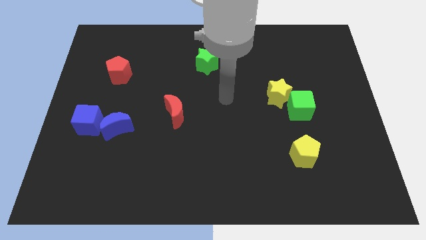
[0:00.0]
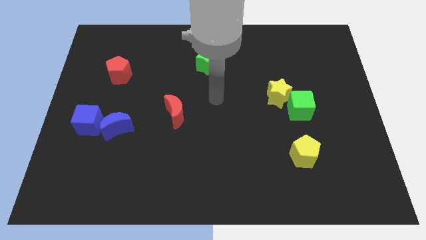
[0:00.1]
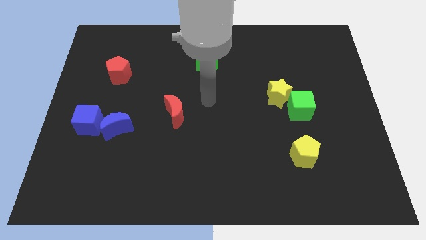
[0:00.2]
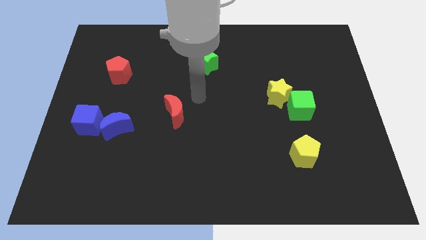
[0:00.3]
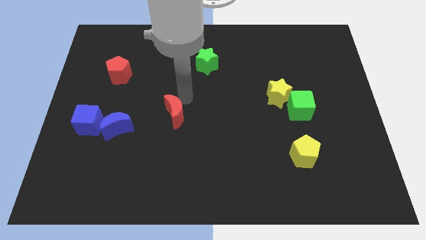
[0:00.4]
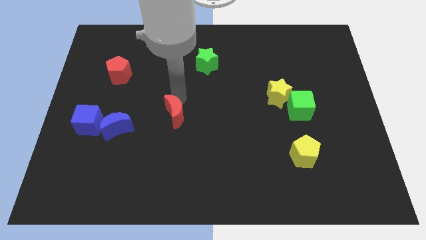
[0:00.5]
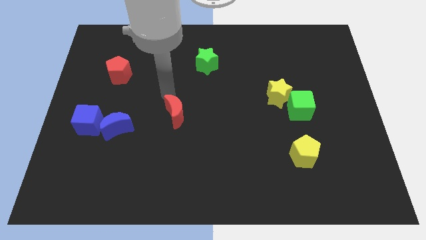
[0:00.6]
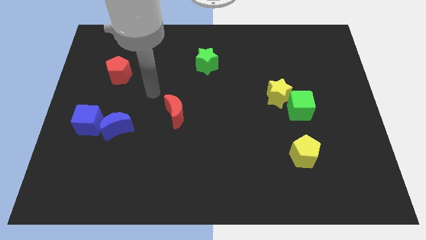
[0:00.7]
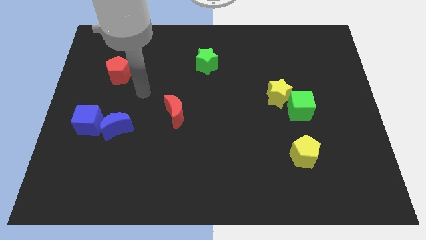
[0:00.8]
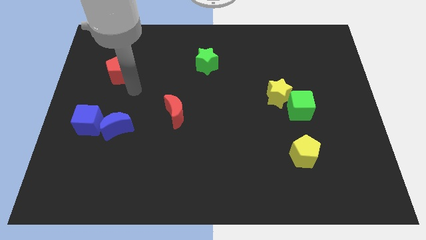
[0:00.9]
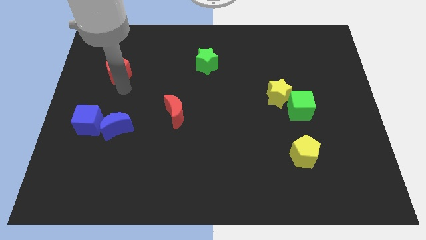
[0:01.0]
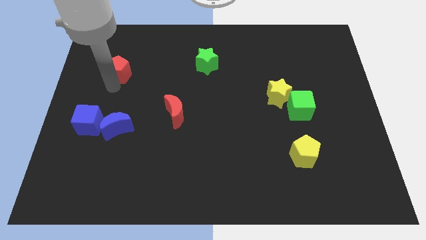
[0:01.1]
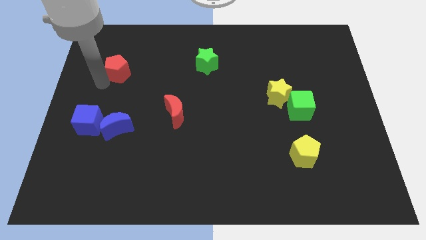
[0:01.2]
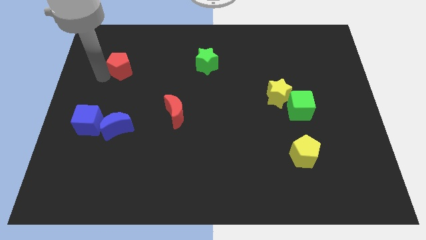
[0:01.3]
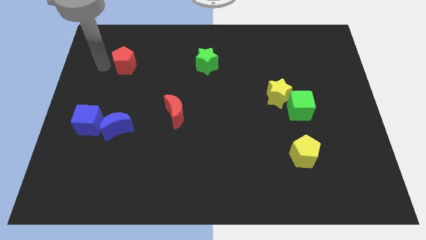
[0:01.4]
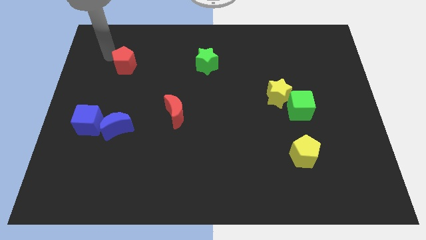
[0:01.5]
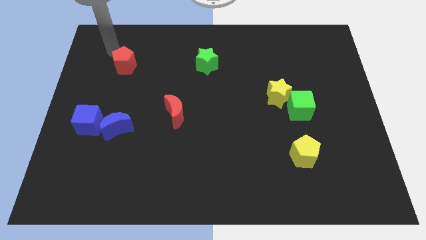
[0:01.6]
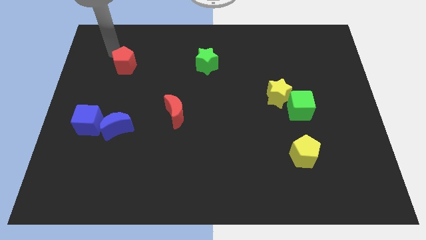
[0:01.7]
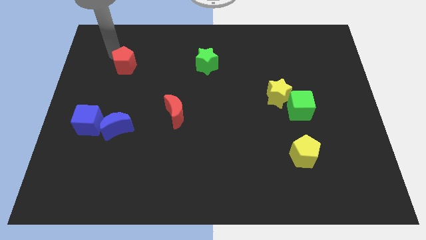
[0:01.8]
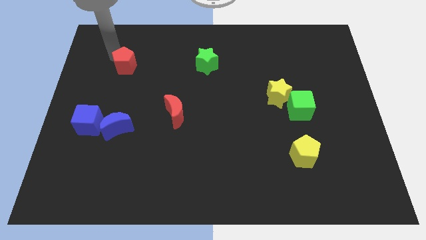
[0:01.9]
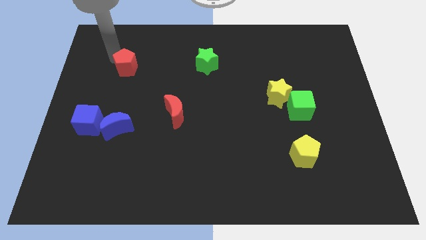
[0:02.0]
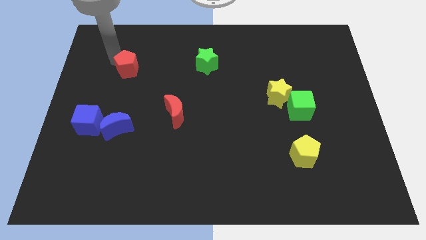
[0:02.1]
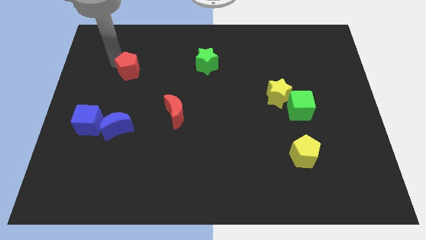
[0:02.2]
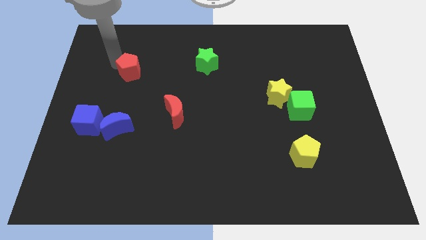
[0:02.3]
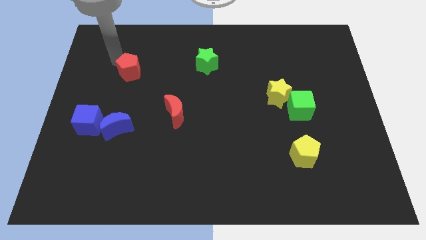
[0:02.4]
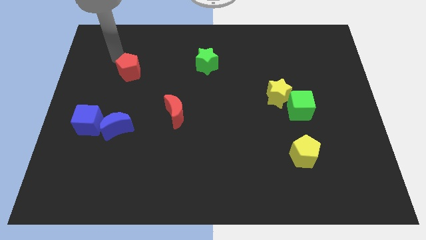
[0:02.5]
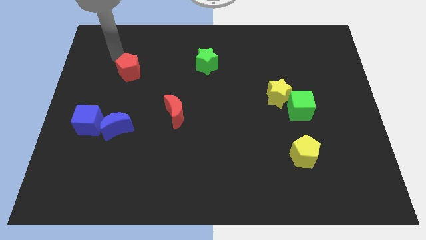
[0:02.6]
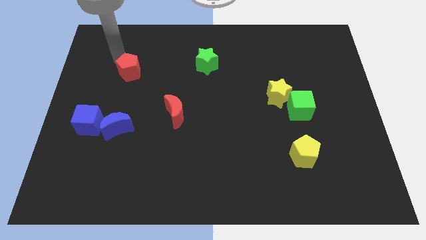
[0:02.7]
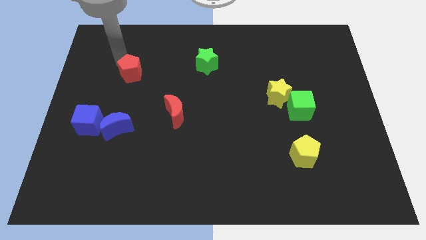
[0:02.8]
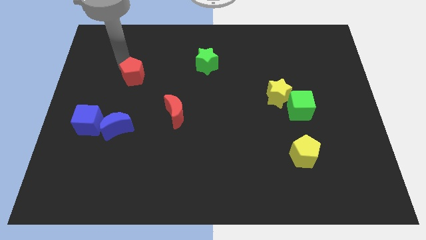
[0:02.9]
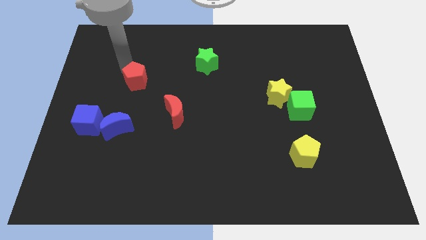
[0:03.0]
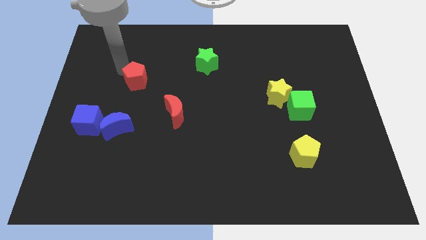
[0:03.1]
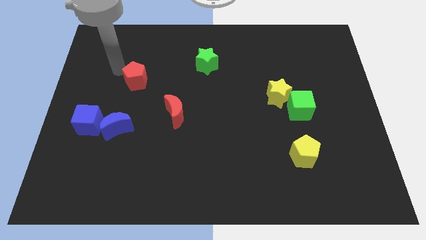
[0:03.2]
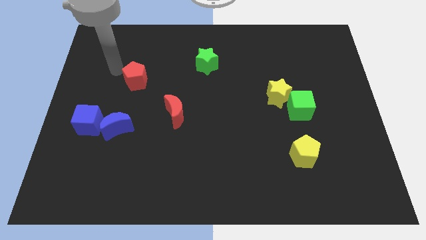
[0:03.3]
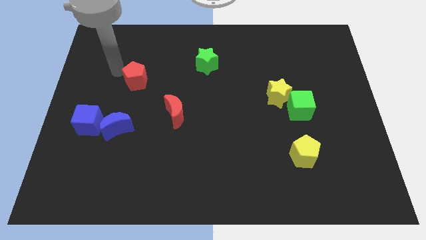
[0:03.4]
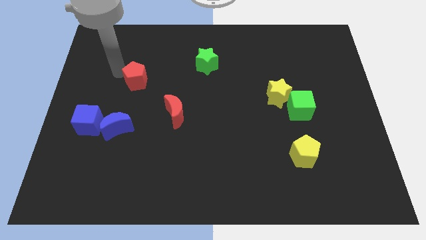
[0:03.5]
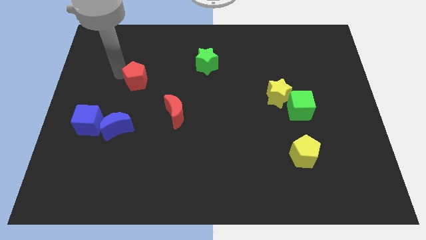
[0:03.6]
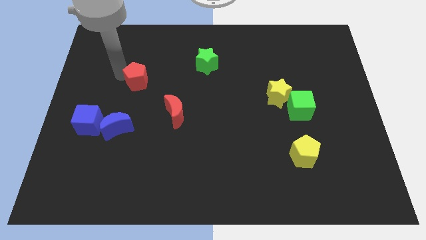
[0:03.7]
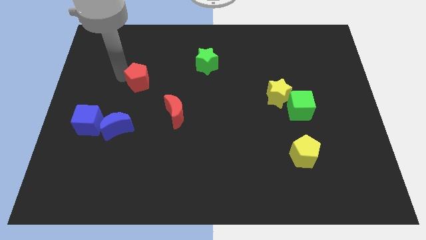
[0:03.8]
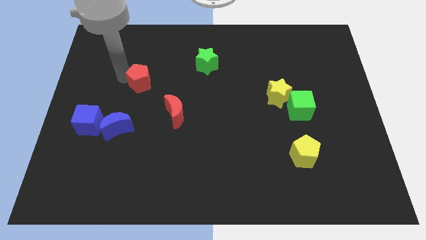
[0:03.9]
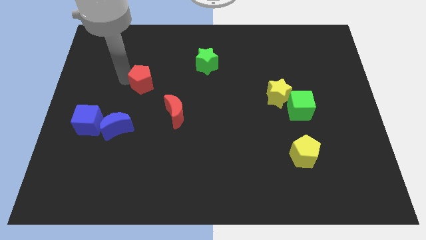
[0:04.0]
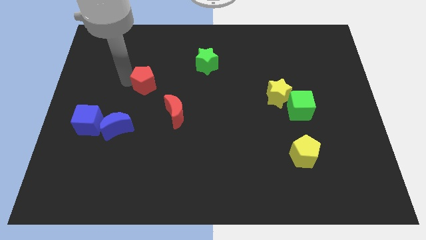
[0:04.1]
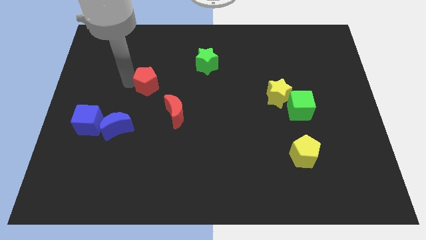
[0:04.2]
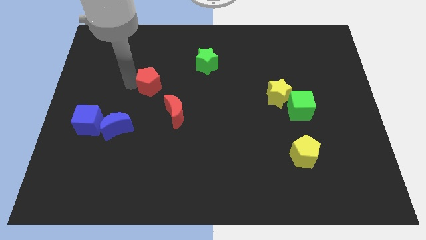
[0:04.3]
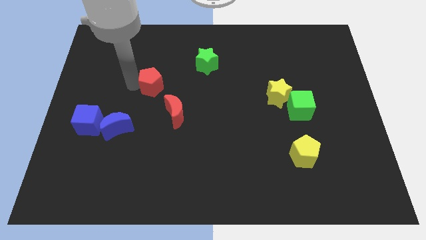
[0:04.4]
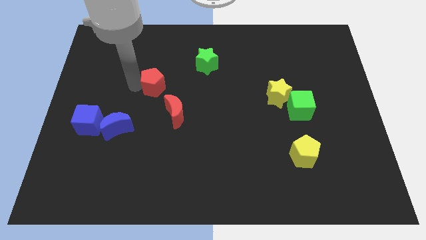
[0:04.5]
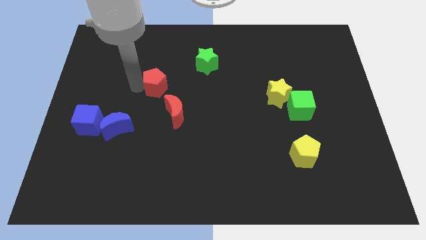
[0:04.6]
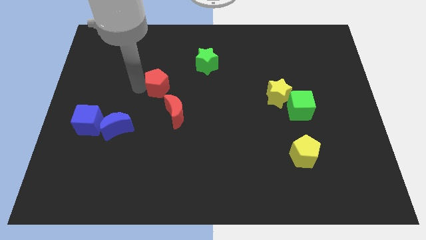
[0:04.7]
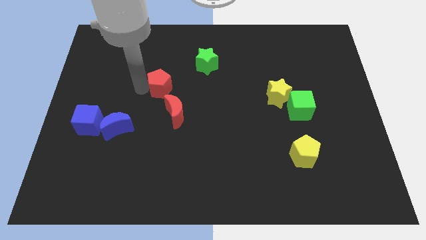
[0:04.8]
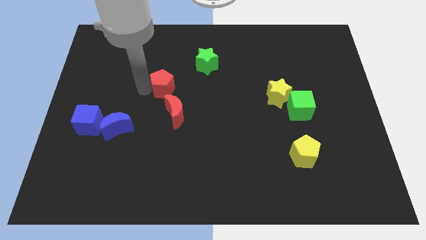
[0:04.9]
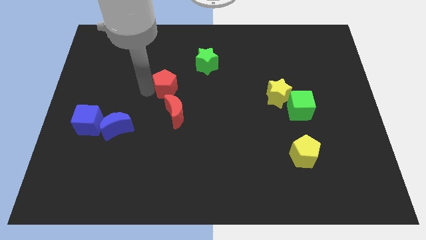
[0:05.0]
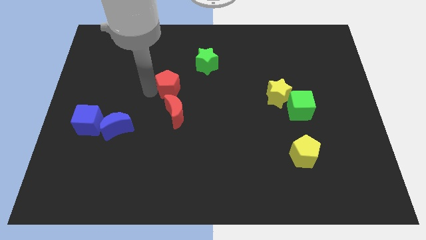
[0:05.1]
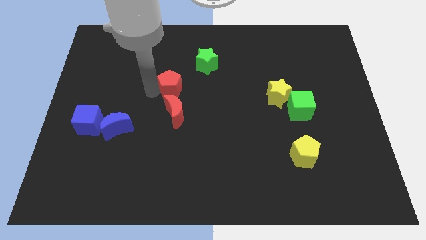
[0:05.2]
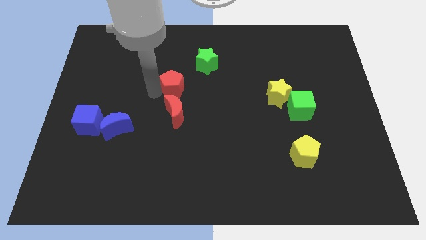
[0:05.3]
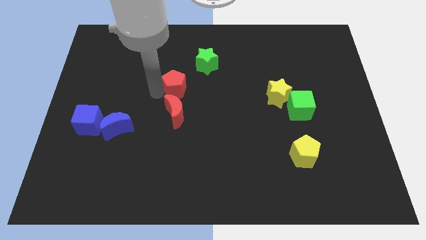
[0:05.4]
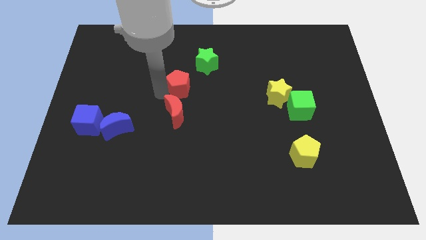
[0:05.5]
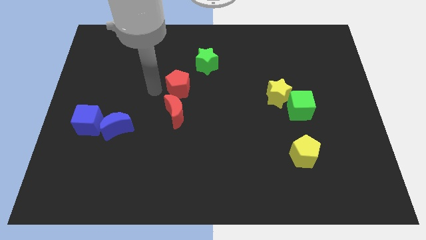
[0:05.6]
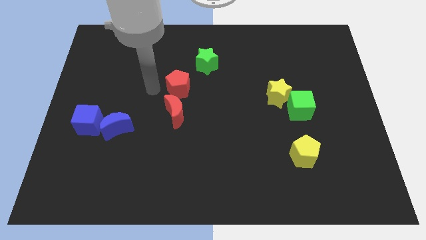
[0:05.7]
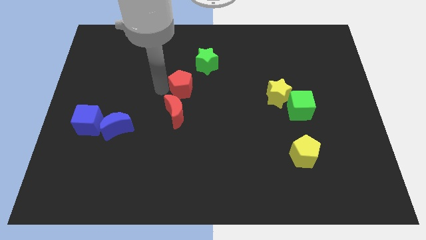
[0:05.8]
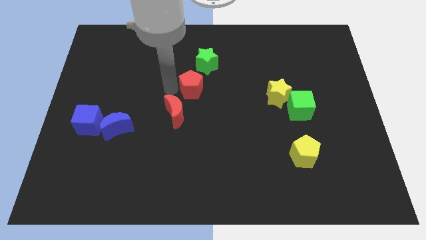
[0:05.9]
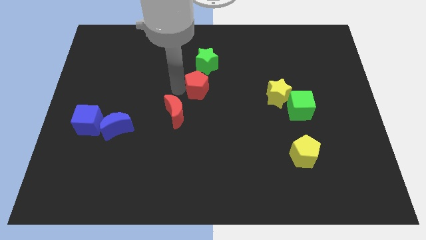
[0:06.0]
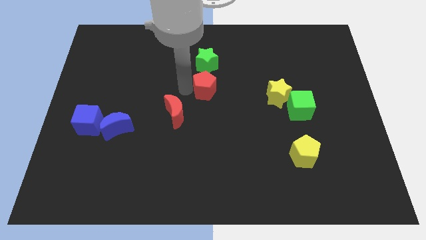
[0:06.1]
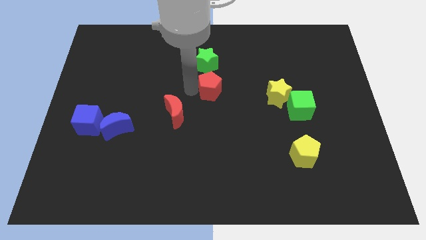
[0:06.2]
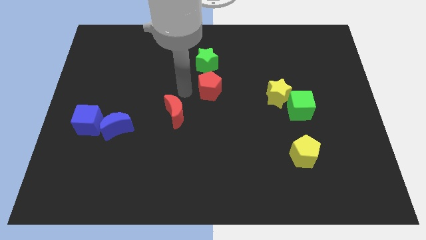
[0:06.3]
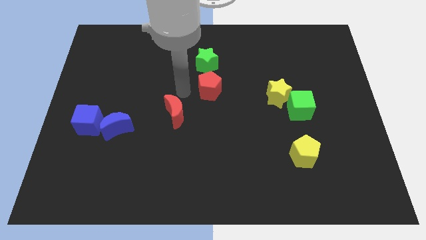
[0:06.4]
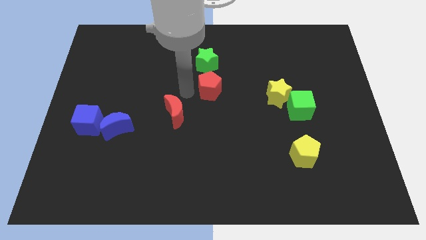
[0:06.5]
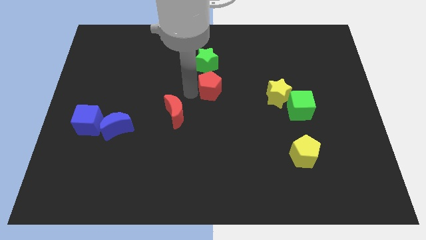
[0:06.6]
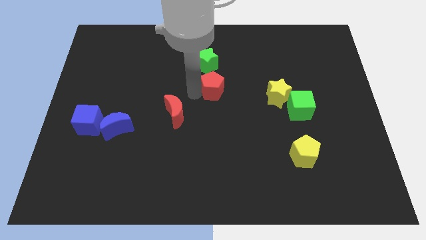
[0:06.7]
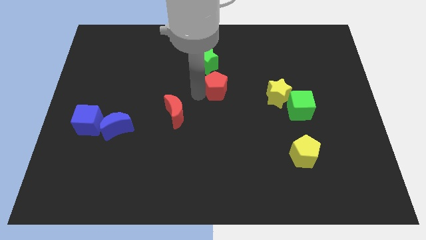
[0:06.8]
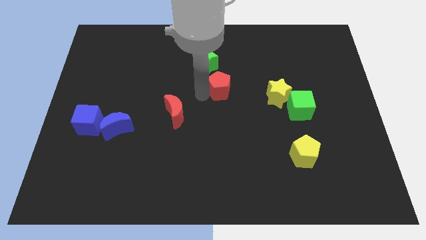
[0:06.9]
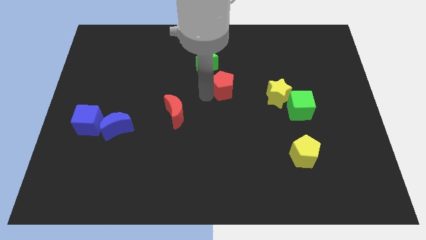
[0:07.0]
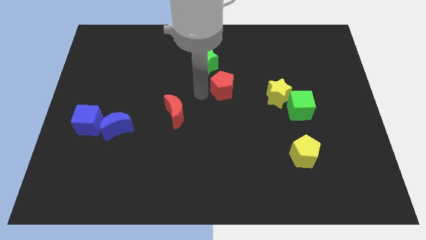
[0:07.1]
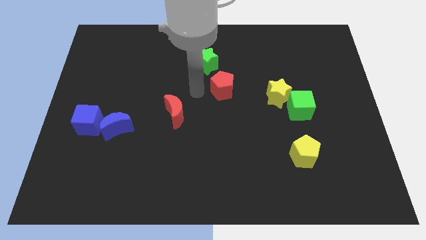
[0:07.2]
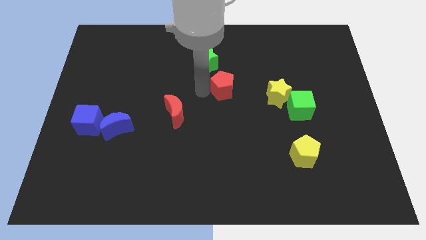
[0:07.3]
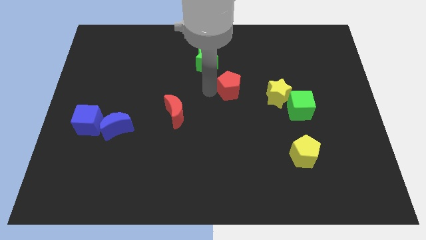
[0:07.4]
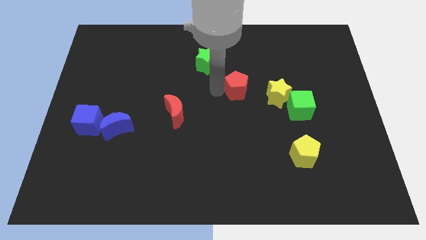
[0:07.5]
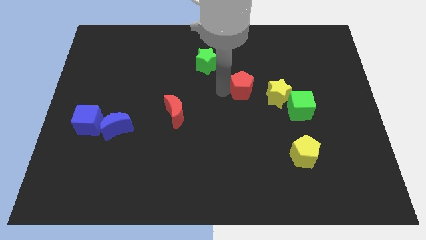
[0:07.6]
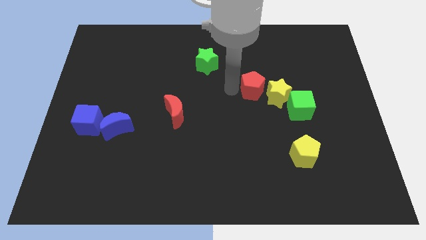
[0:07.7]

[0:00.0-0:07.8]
slide the red pentagon next to the yellow star
